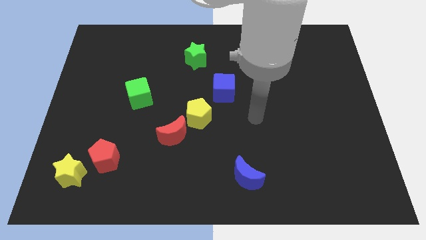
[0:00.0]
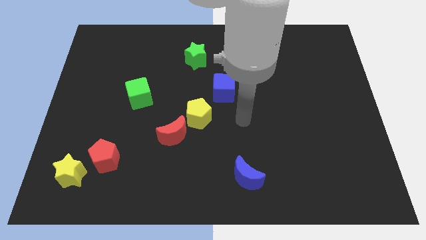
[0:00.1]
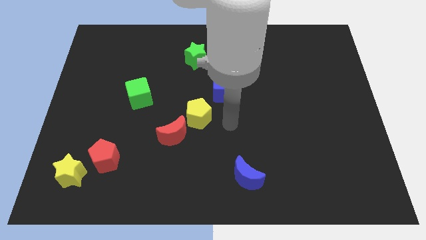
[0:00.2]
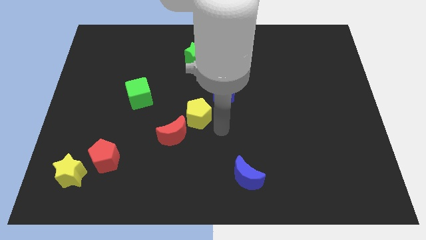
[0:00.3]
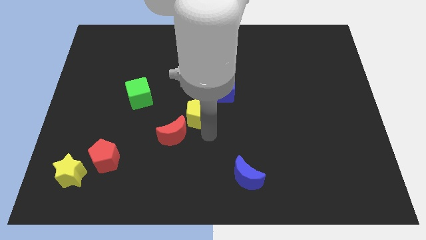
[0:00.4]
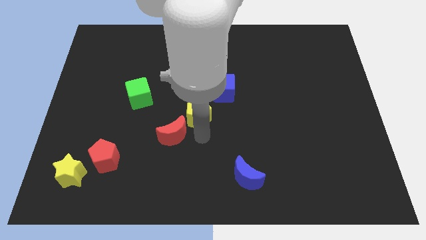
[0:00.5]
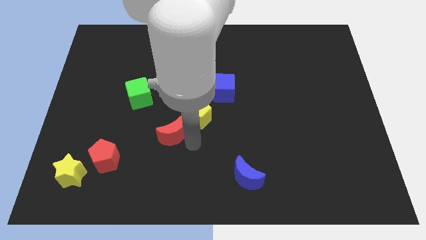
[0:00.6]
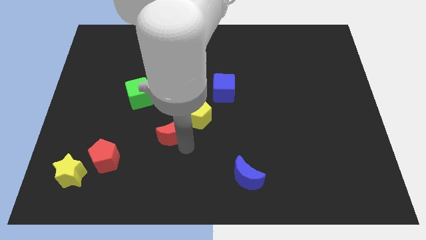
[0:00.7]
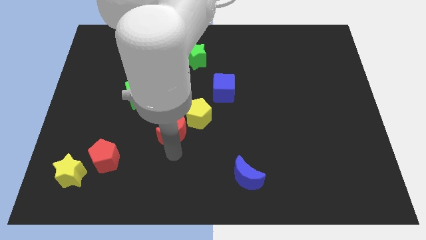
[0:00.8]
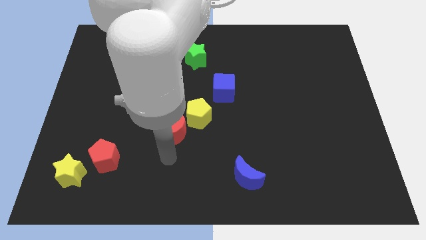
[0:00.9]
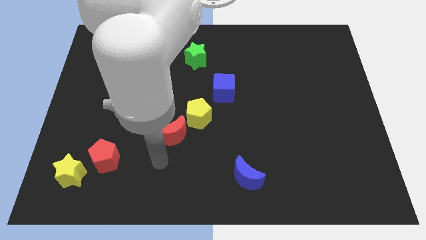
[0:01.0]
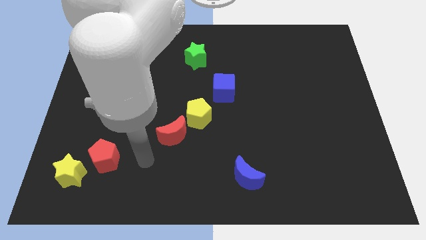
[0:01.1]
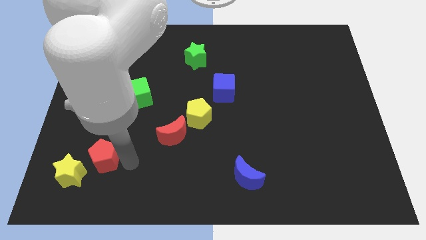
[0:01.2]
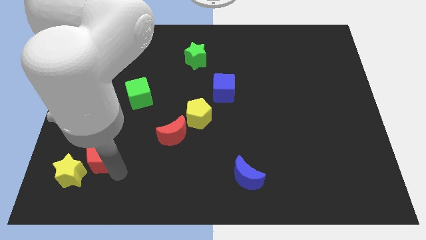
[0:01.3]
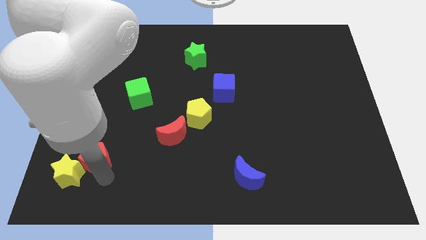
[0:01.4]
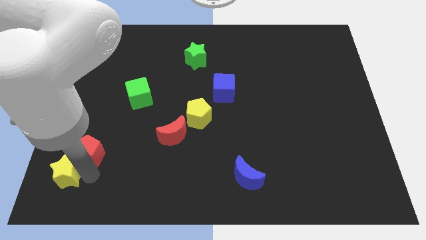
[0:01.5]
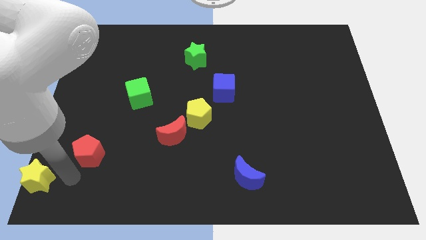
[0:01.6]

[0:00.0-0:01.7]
pull the red pentagon apart from the yellow star

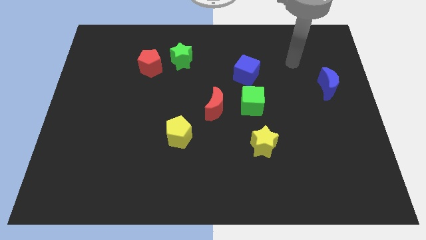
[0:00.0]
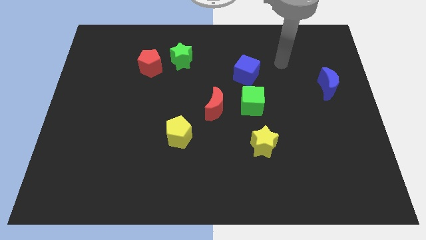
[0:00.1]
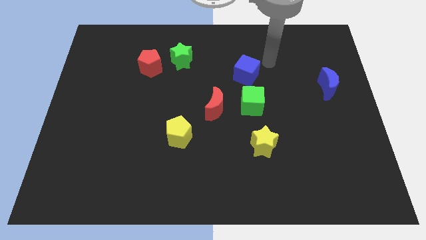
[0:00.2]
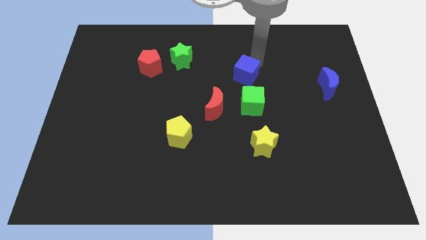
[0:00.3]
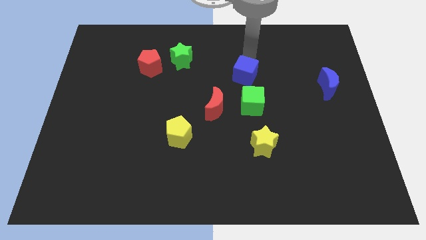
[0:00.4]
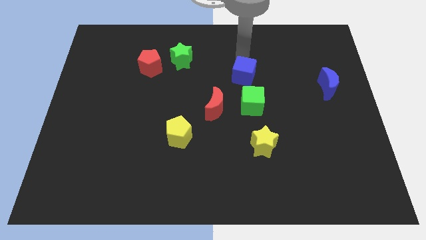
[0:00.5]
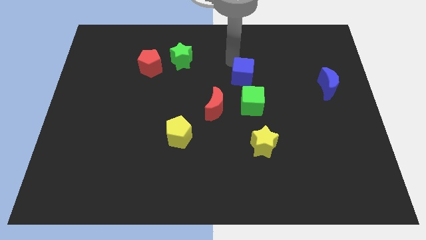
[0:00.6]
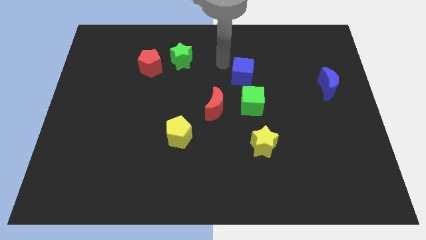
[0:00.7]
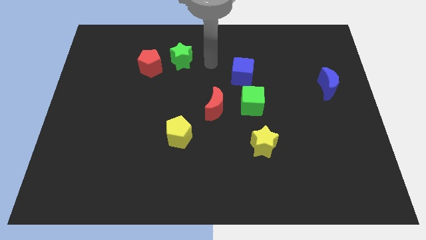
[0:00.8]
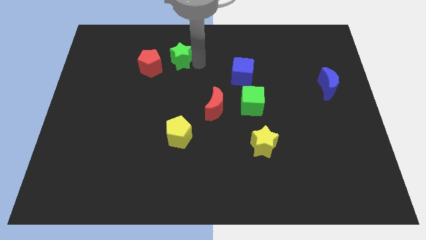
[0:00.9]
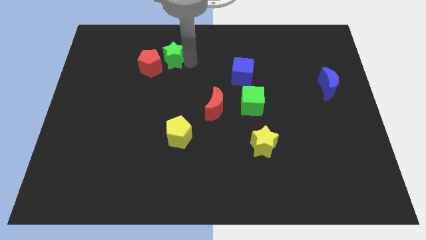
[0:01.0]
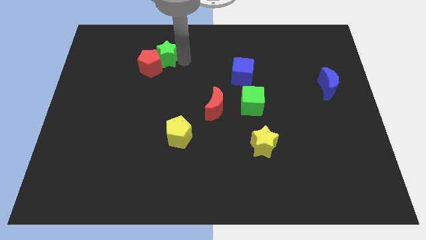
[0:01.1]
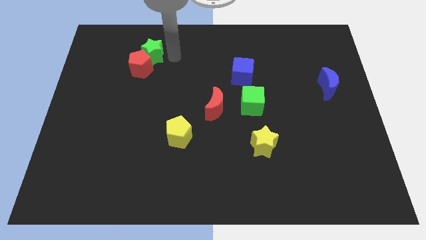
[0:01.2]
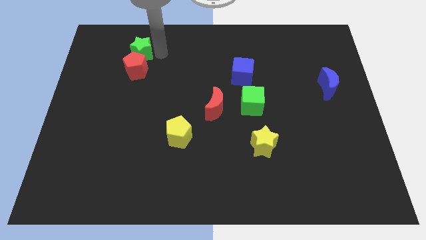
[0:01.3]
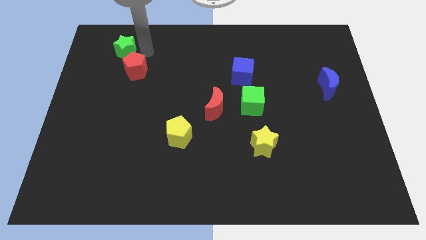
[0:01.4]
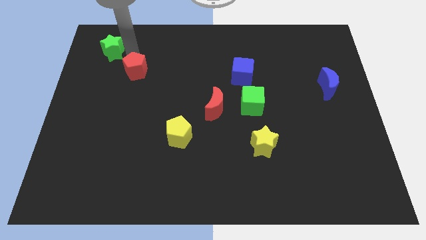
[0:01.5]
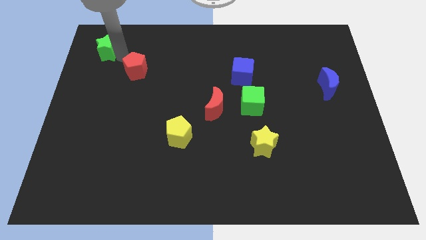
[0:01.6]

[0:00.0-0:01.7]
separate the red pentagon from the green star

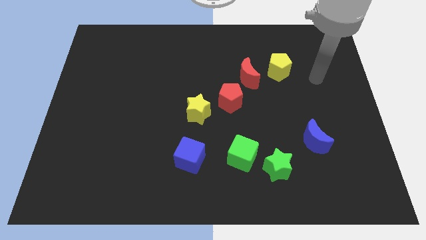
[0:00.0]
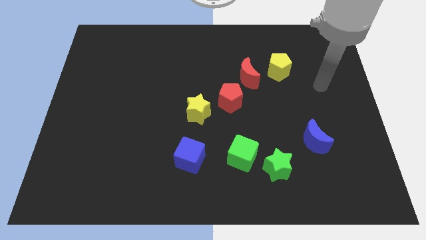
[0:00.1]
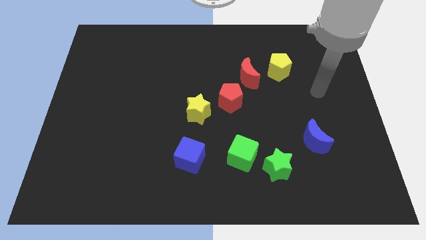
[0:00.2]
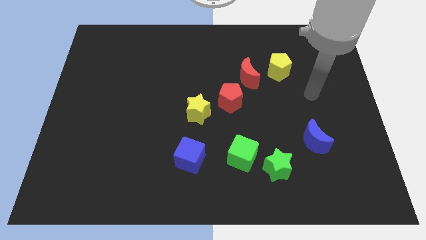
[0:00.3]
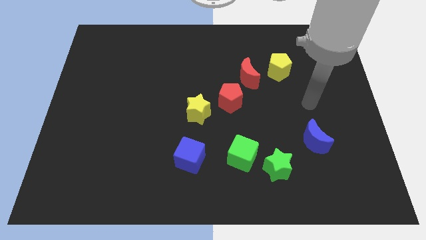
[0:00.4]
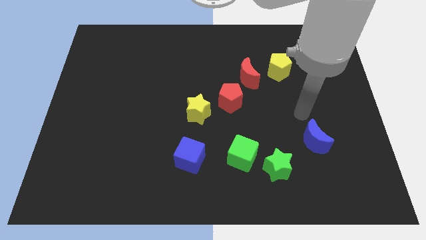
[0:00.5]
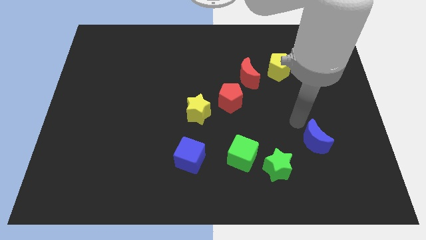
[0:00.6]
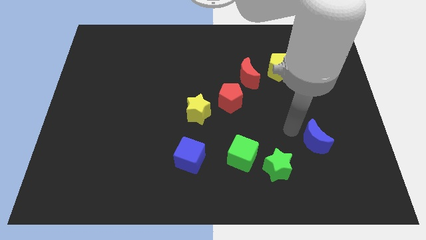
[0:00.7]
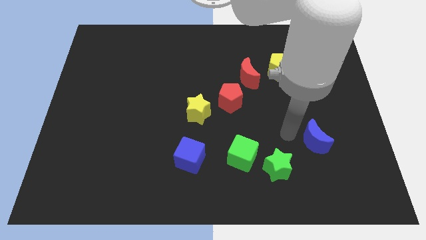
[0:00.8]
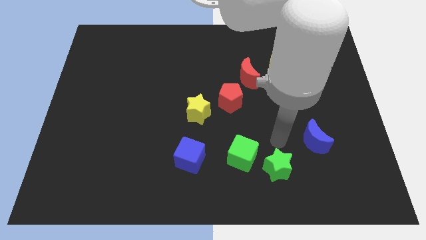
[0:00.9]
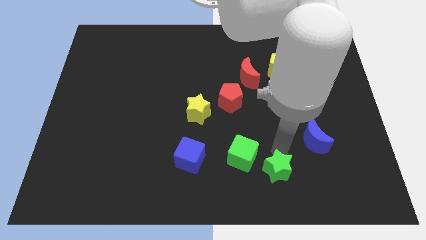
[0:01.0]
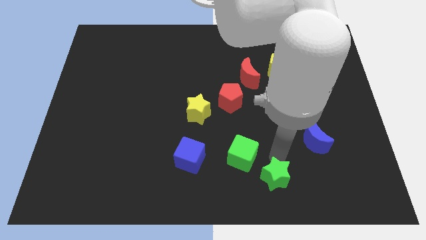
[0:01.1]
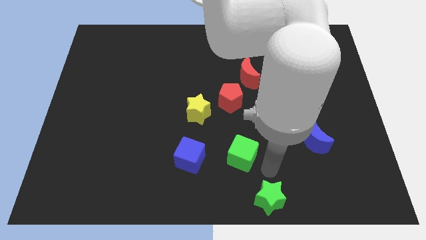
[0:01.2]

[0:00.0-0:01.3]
pull the green cube apart from the green star

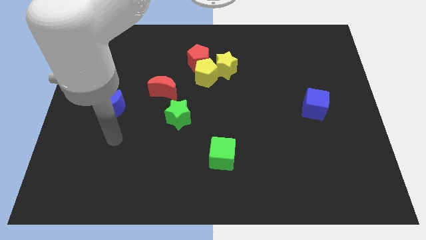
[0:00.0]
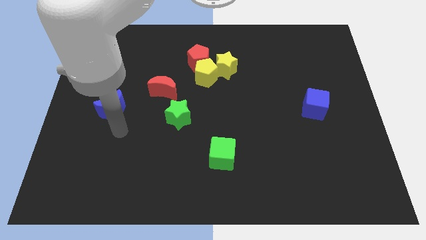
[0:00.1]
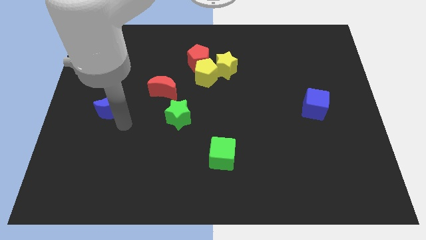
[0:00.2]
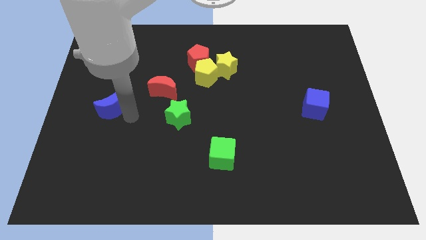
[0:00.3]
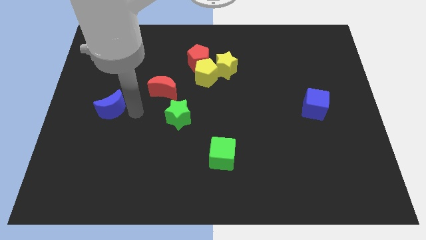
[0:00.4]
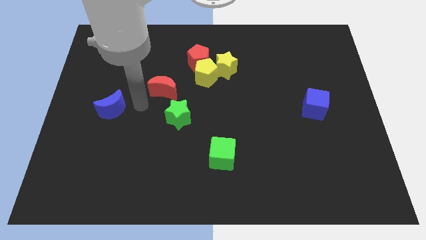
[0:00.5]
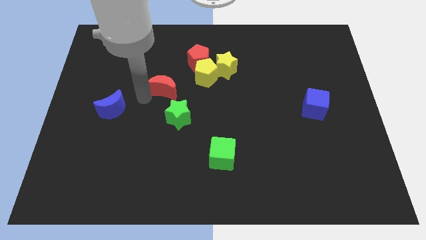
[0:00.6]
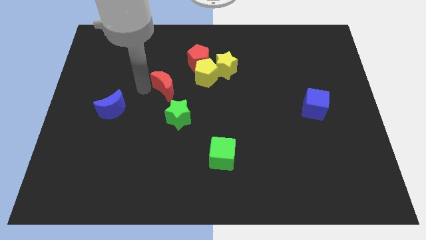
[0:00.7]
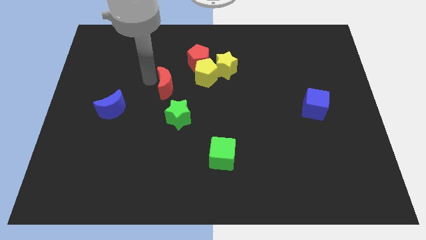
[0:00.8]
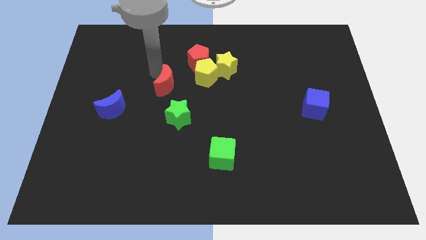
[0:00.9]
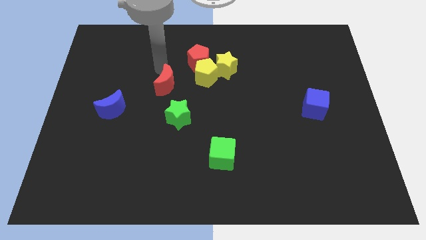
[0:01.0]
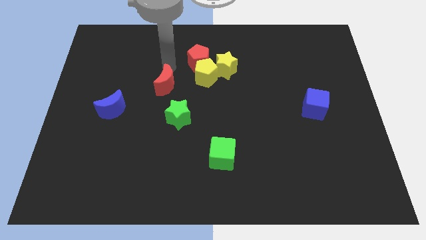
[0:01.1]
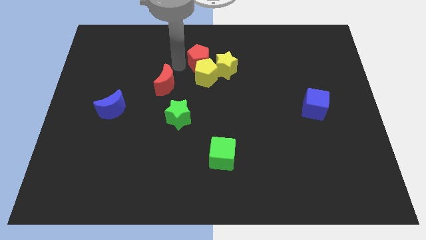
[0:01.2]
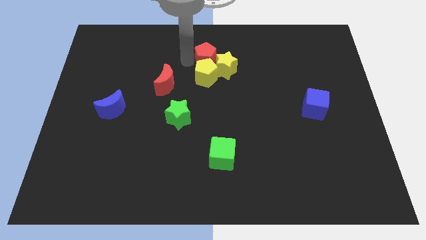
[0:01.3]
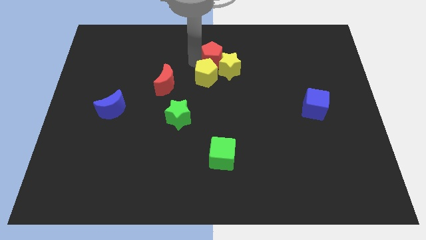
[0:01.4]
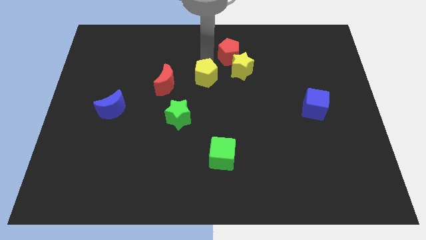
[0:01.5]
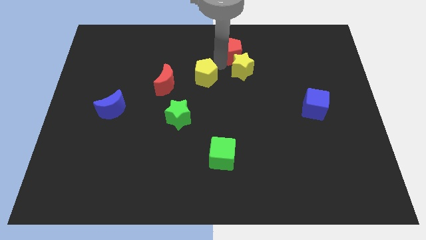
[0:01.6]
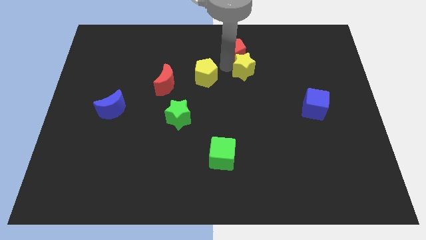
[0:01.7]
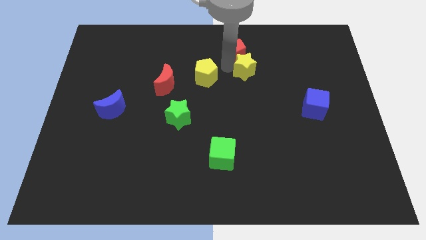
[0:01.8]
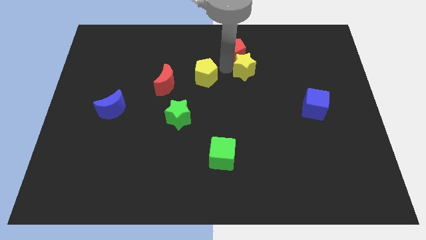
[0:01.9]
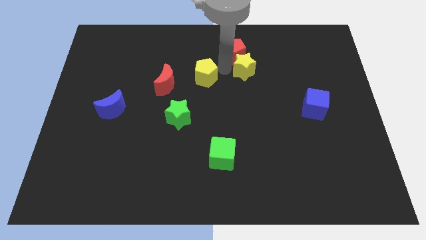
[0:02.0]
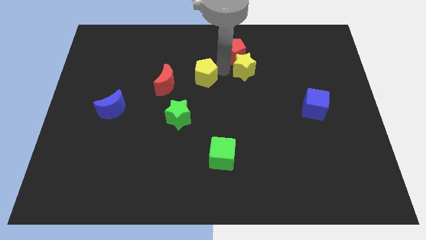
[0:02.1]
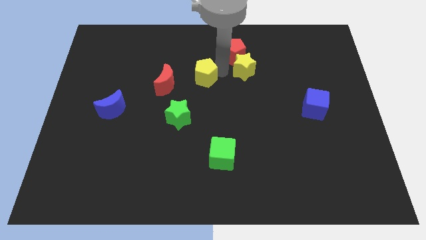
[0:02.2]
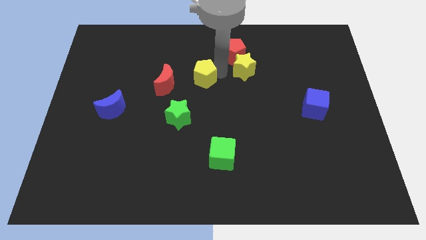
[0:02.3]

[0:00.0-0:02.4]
pull the yellow pentagon apart from the yellow star and red pentagon

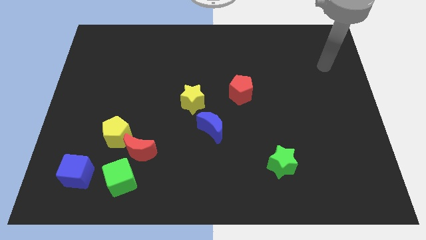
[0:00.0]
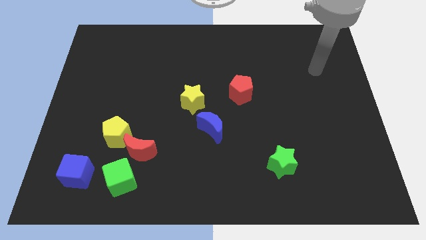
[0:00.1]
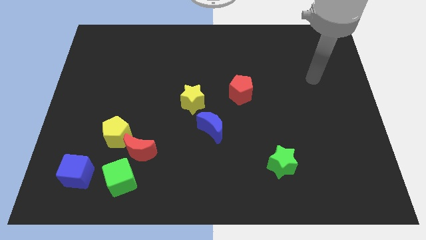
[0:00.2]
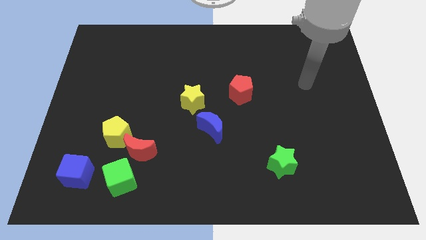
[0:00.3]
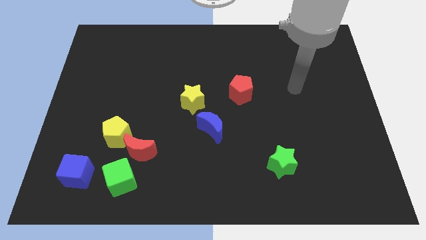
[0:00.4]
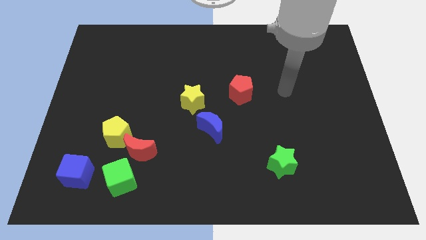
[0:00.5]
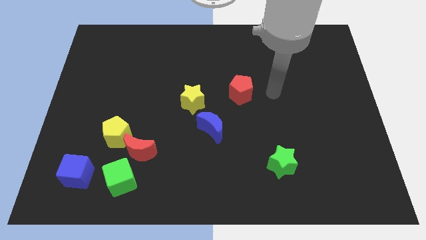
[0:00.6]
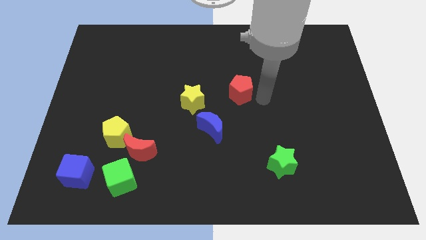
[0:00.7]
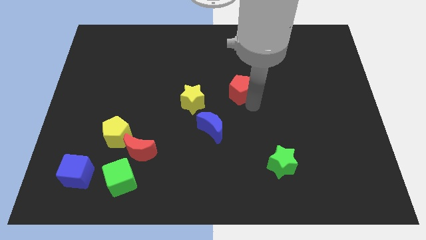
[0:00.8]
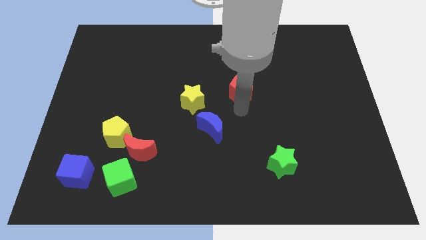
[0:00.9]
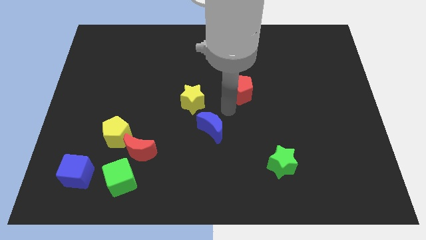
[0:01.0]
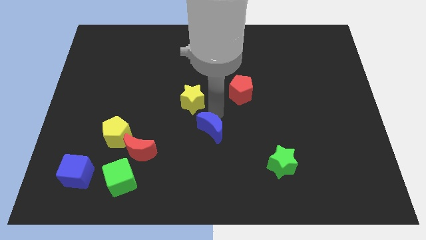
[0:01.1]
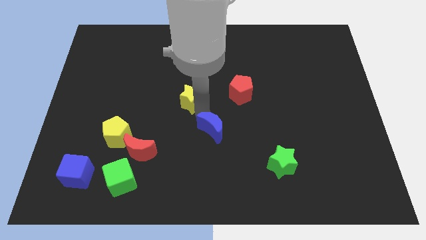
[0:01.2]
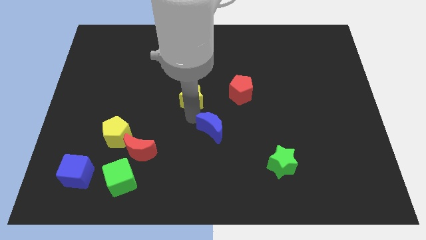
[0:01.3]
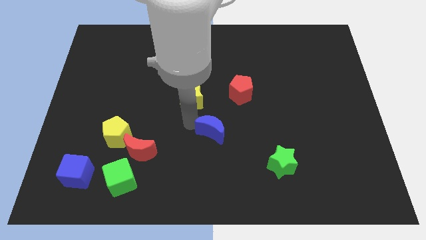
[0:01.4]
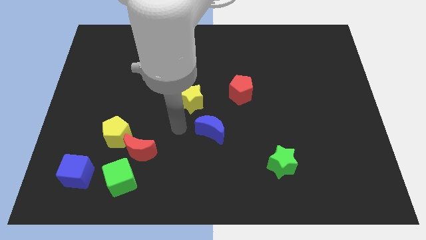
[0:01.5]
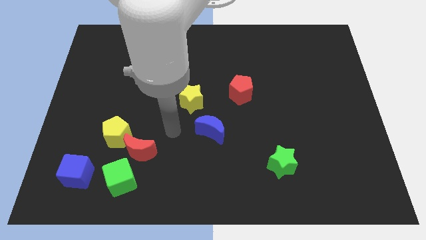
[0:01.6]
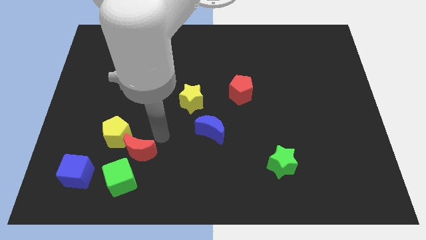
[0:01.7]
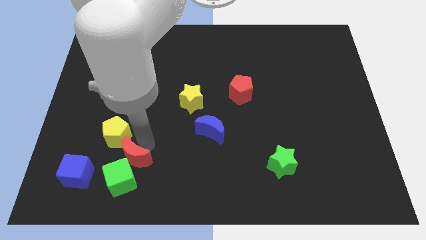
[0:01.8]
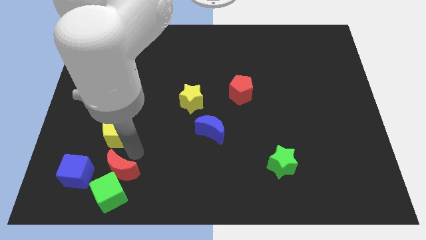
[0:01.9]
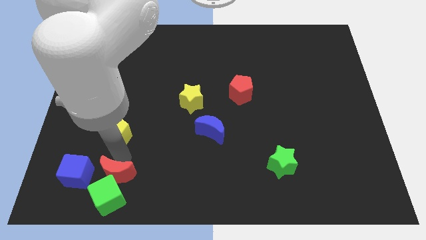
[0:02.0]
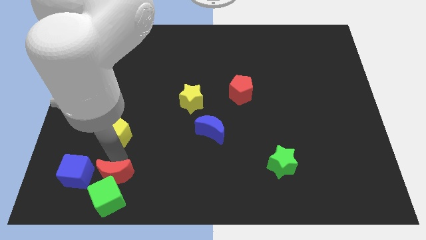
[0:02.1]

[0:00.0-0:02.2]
pull the yellow pentagon apart from the red moon
